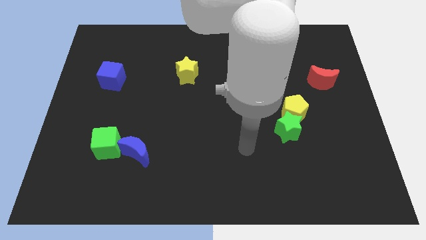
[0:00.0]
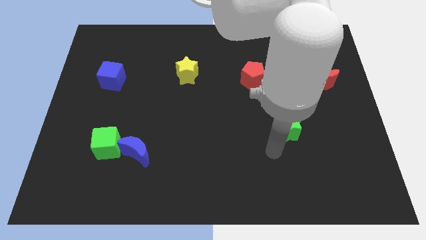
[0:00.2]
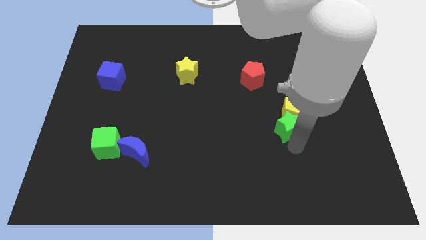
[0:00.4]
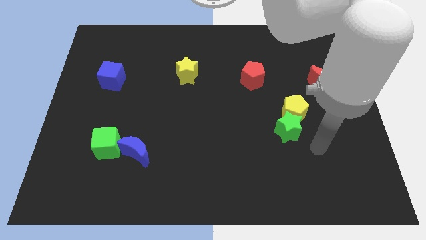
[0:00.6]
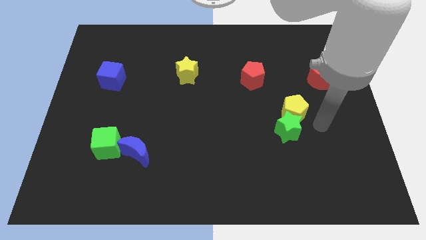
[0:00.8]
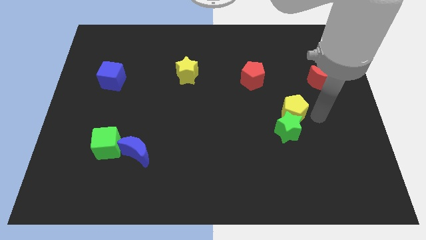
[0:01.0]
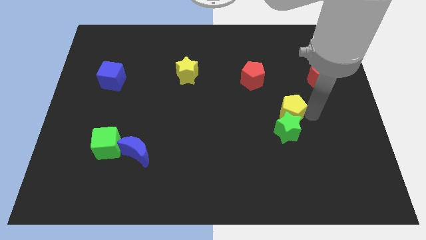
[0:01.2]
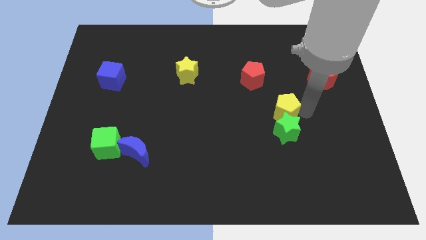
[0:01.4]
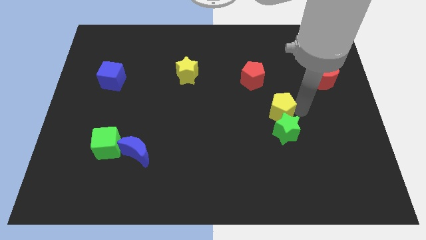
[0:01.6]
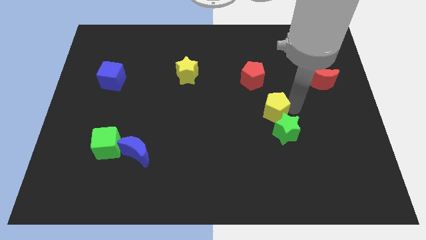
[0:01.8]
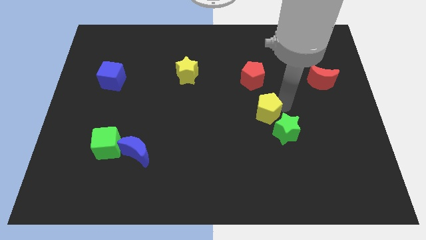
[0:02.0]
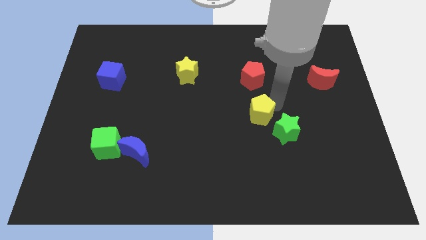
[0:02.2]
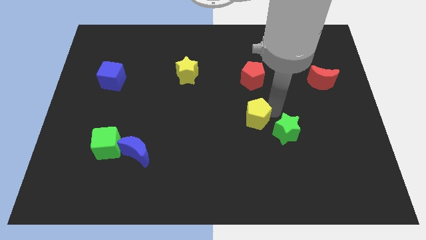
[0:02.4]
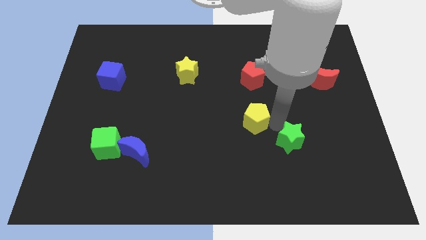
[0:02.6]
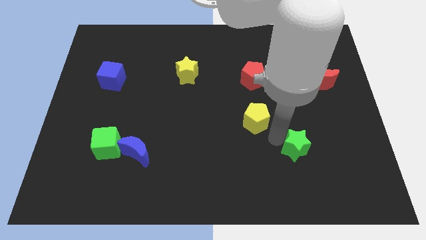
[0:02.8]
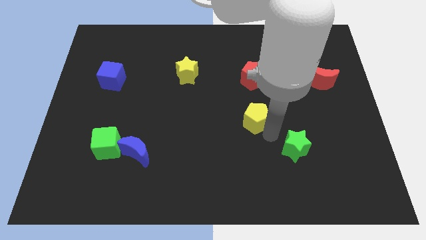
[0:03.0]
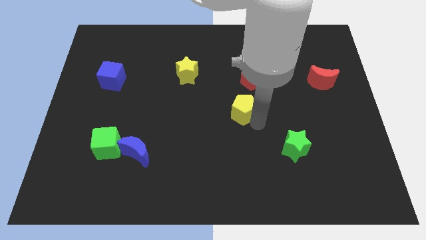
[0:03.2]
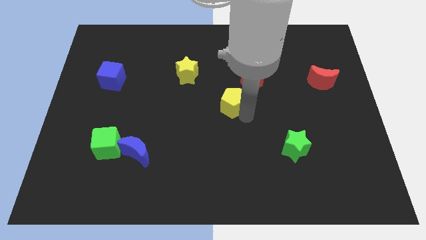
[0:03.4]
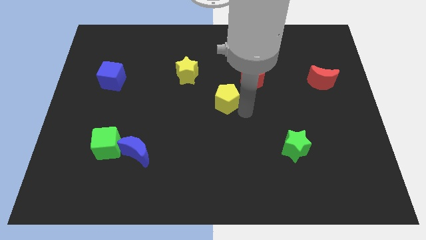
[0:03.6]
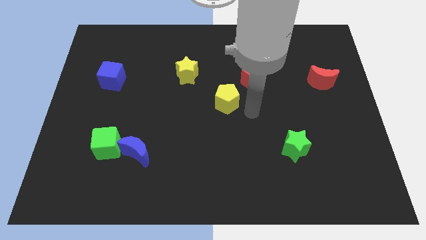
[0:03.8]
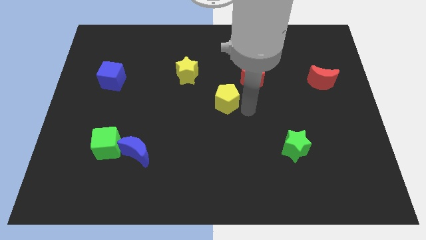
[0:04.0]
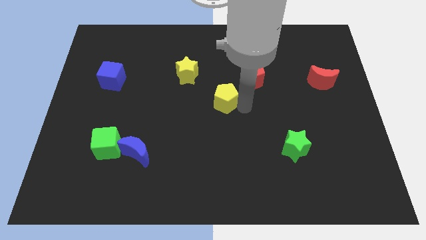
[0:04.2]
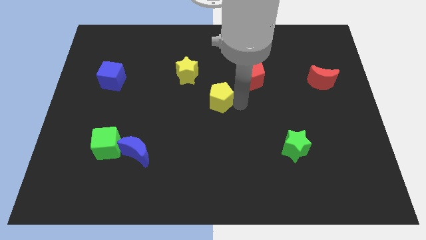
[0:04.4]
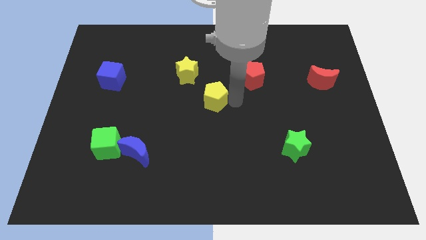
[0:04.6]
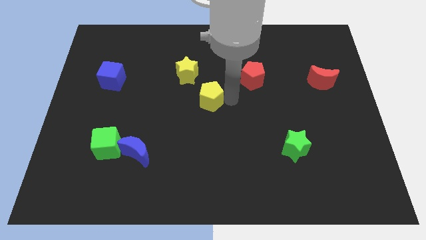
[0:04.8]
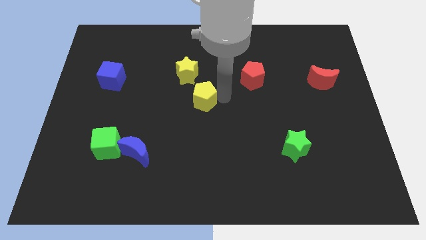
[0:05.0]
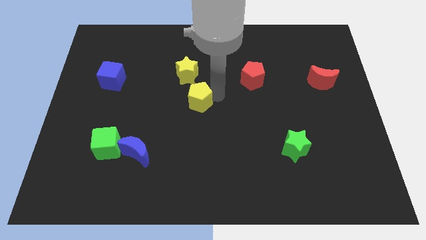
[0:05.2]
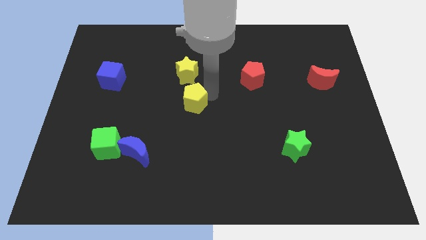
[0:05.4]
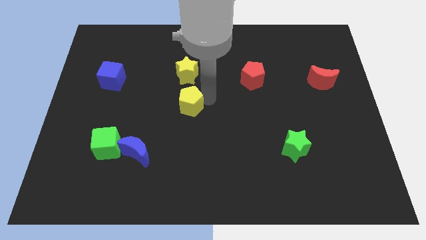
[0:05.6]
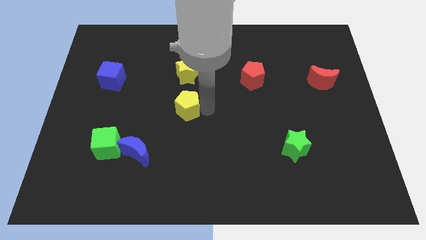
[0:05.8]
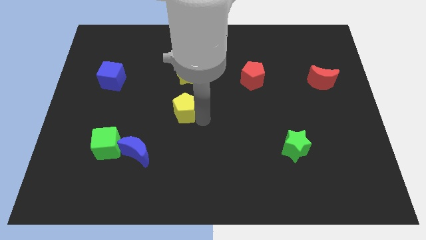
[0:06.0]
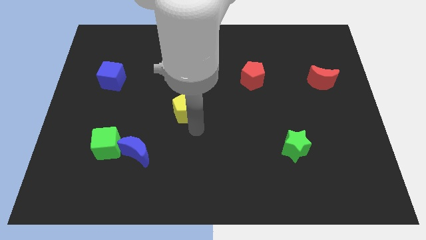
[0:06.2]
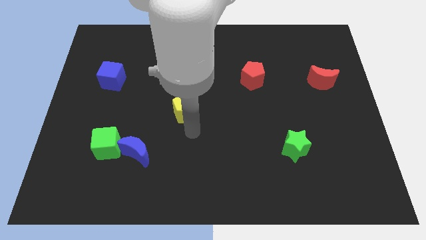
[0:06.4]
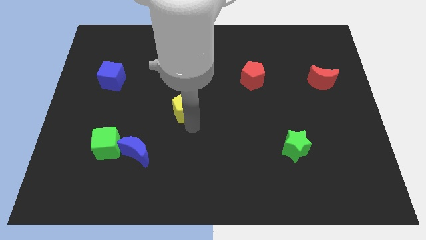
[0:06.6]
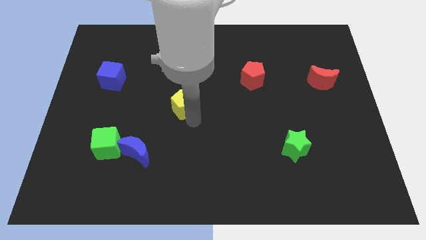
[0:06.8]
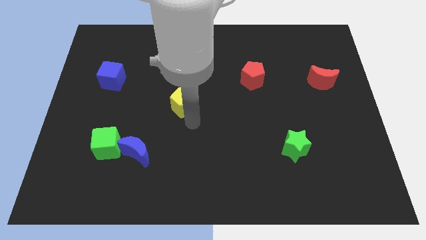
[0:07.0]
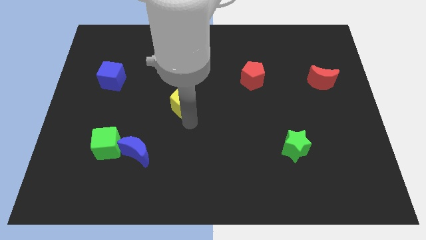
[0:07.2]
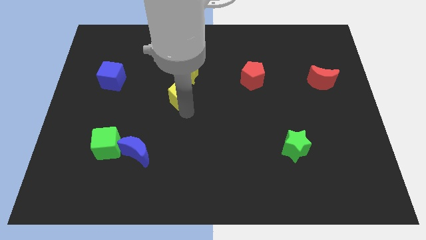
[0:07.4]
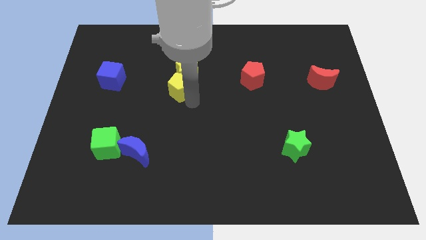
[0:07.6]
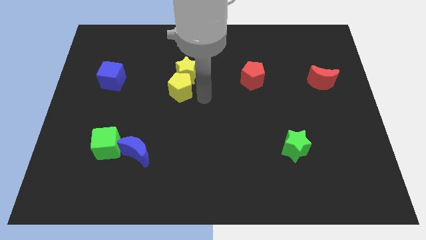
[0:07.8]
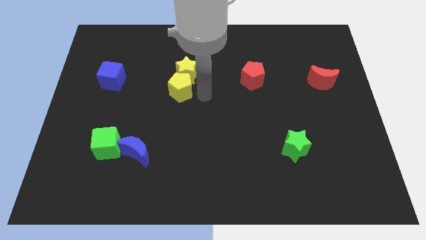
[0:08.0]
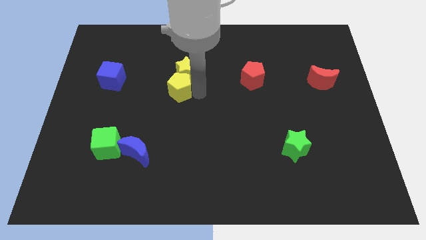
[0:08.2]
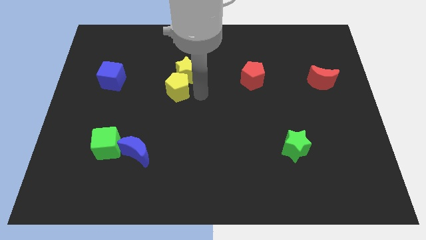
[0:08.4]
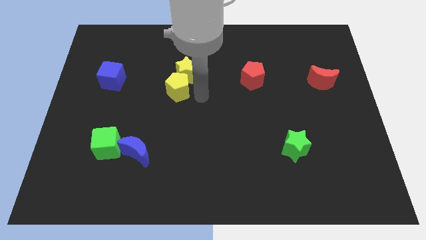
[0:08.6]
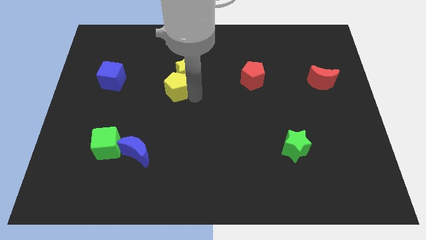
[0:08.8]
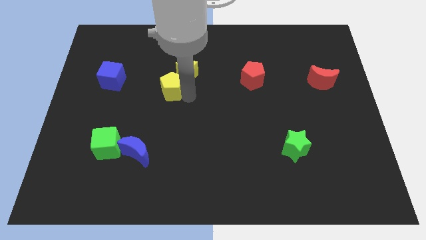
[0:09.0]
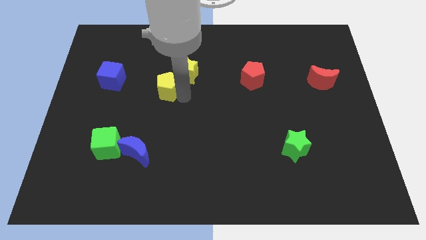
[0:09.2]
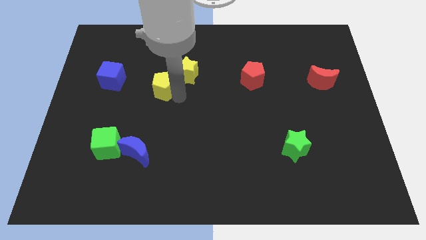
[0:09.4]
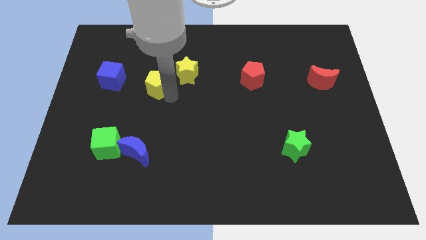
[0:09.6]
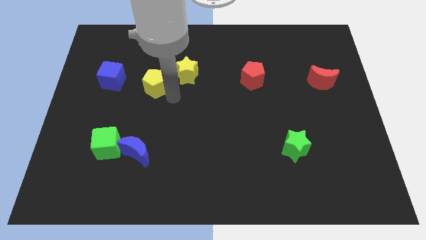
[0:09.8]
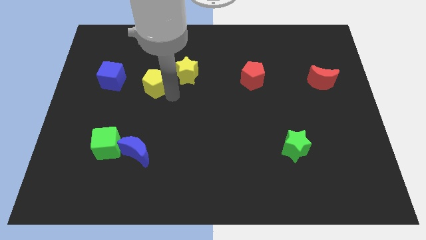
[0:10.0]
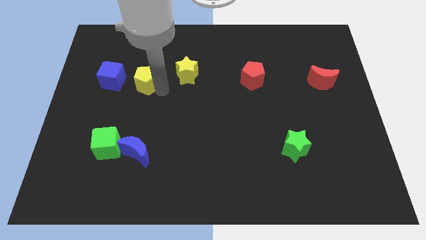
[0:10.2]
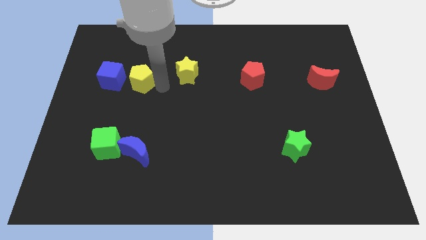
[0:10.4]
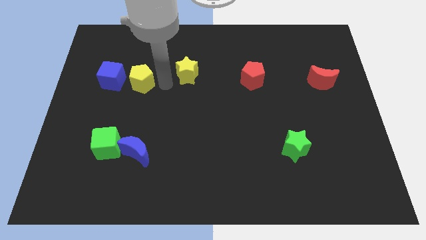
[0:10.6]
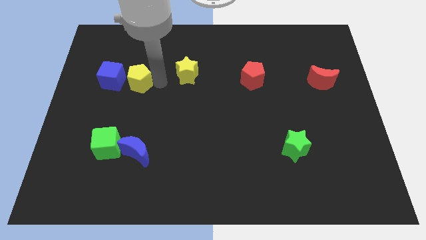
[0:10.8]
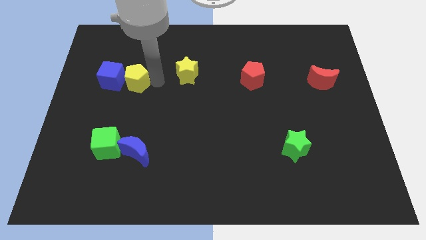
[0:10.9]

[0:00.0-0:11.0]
slide the yellow pentagon towards the blue cube

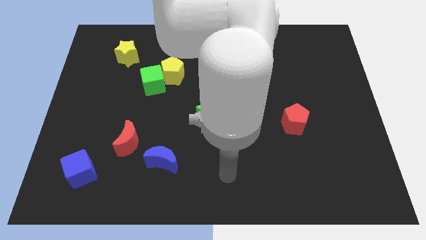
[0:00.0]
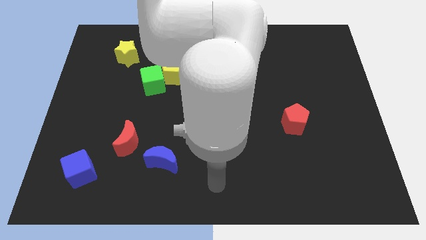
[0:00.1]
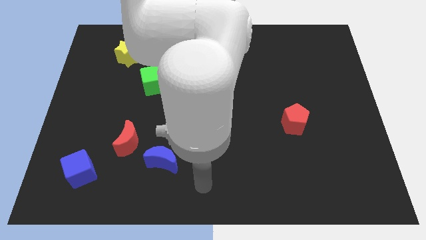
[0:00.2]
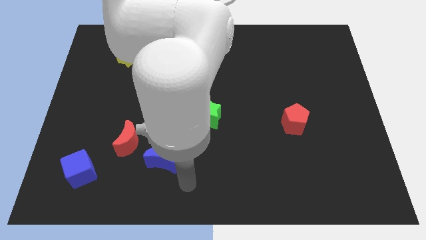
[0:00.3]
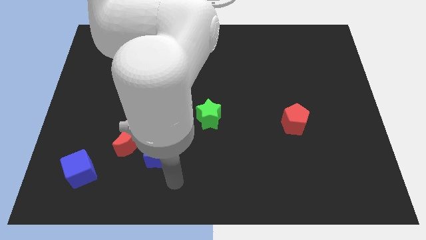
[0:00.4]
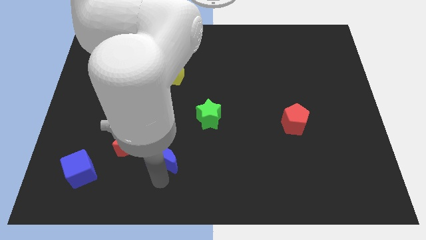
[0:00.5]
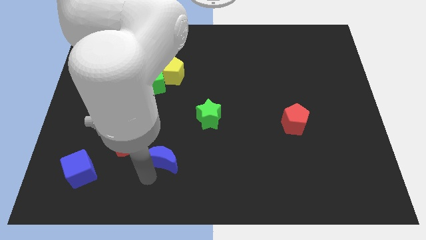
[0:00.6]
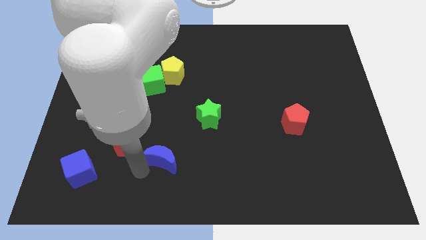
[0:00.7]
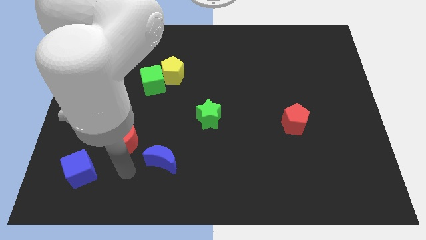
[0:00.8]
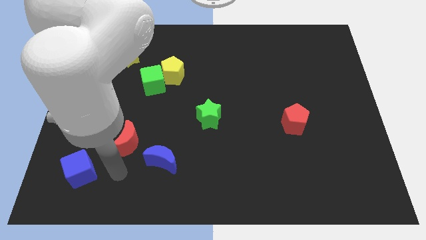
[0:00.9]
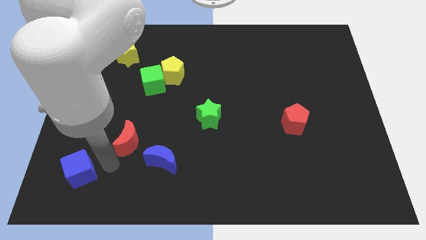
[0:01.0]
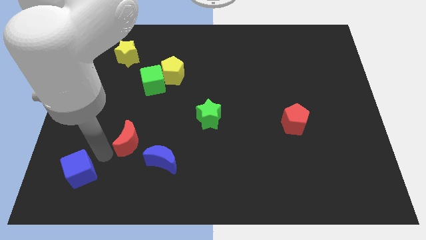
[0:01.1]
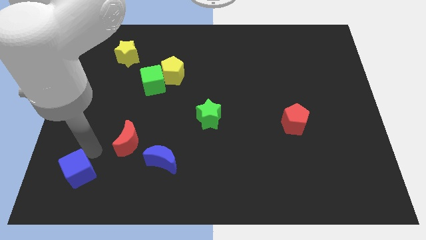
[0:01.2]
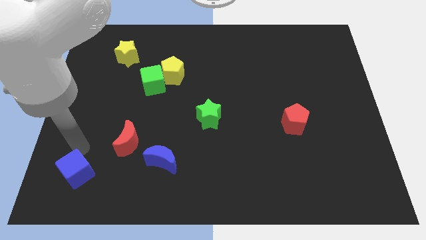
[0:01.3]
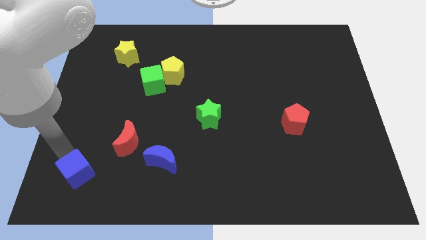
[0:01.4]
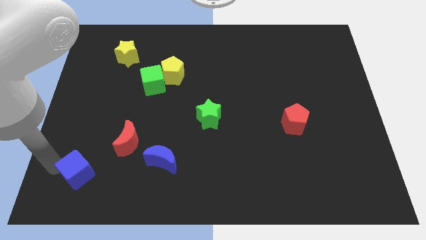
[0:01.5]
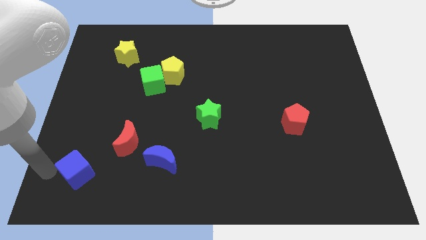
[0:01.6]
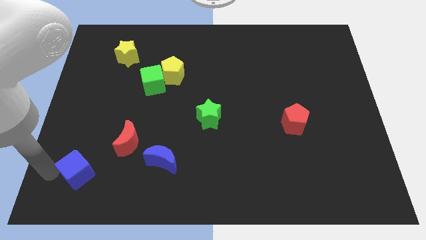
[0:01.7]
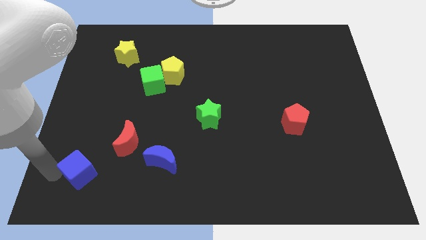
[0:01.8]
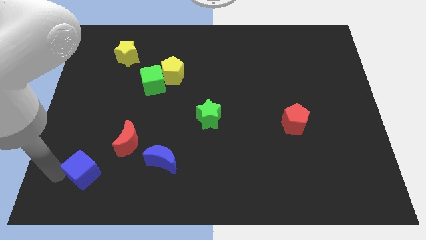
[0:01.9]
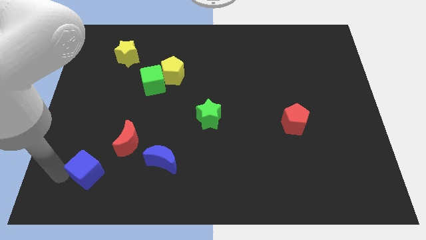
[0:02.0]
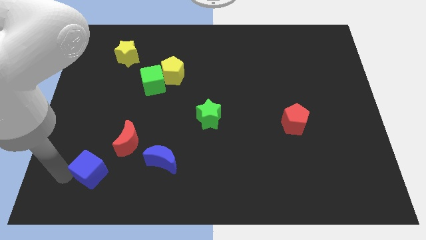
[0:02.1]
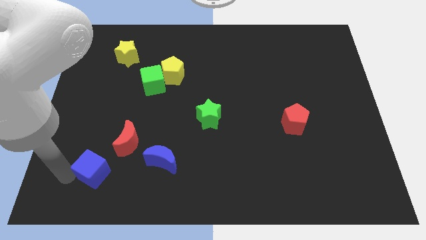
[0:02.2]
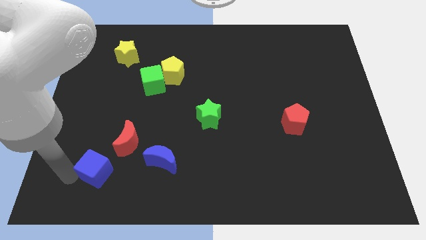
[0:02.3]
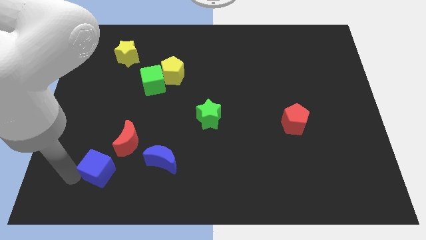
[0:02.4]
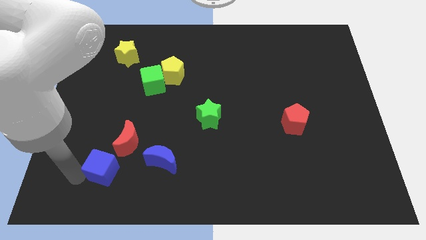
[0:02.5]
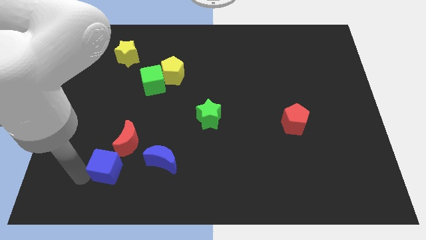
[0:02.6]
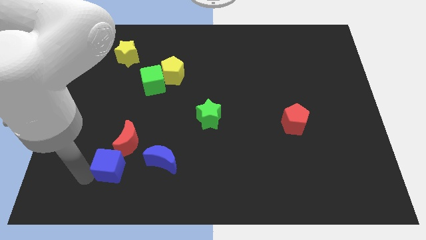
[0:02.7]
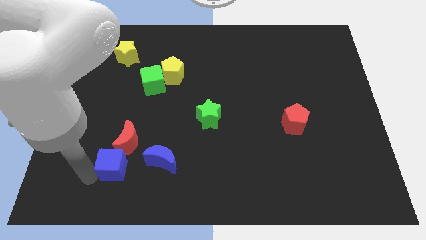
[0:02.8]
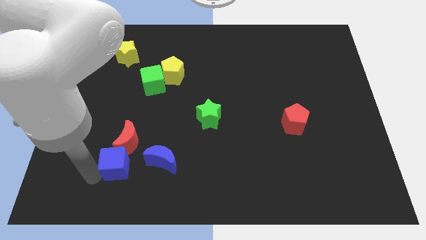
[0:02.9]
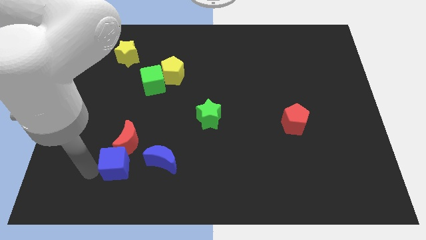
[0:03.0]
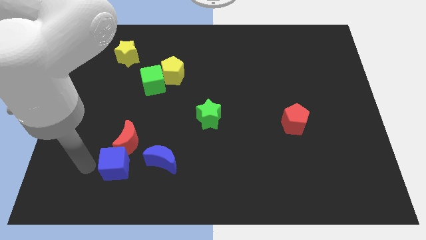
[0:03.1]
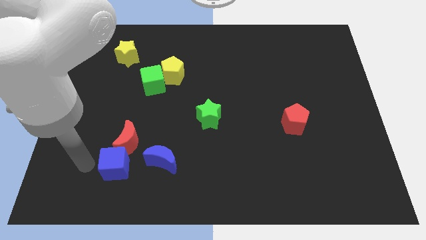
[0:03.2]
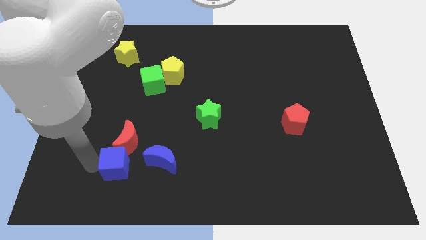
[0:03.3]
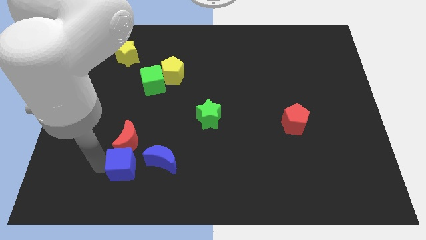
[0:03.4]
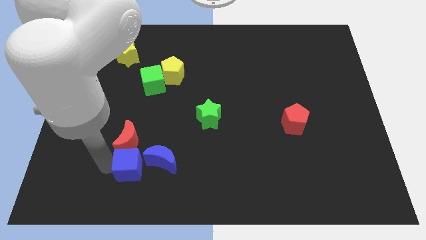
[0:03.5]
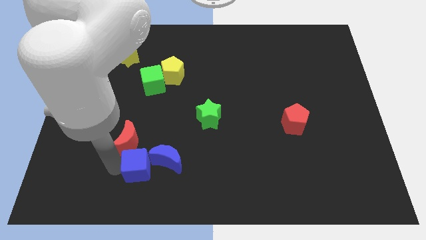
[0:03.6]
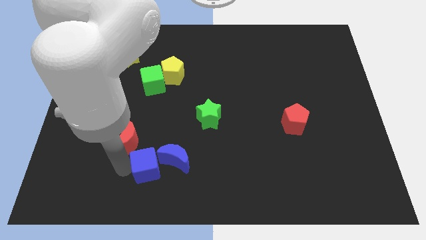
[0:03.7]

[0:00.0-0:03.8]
push the blue cube towards the blue moon
